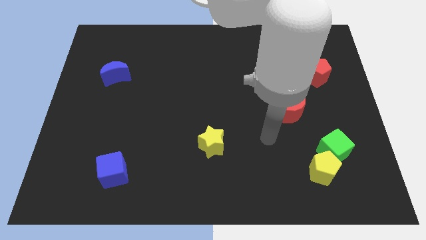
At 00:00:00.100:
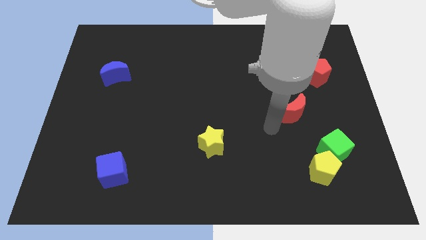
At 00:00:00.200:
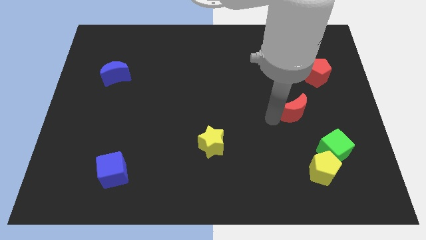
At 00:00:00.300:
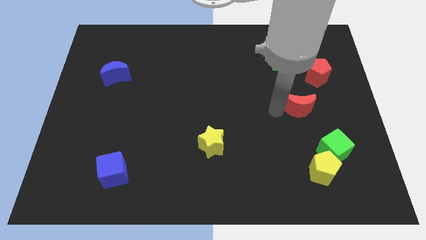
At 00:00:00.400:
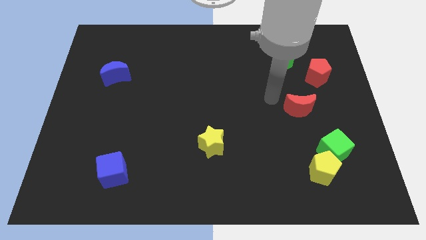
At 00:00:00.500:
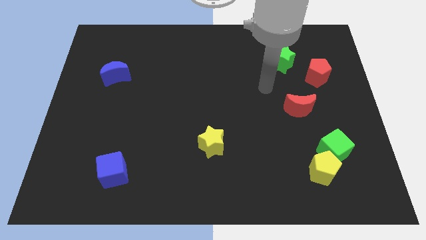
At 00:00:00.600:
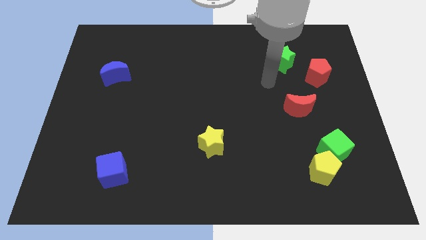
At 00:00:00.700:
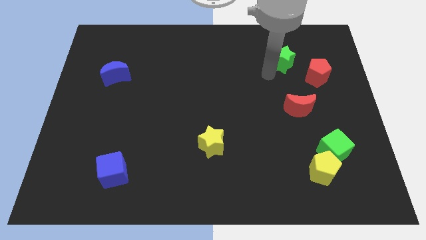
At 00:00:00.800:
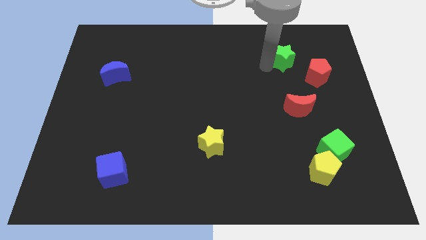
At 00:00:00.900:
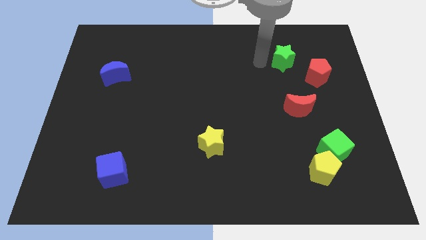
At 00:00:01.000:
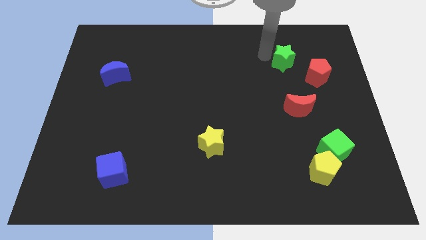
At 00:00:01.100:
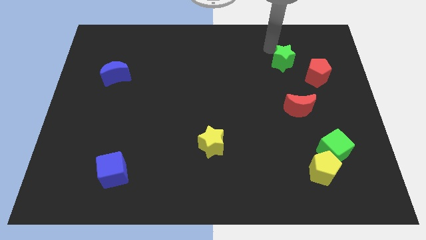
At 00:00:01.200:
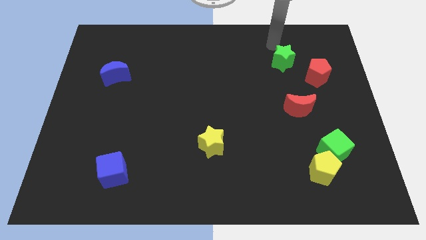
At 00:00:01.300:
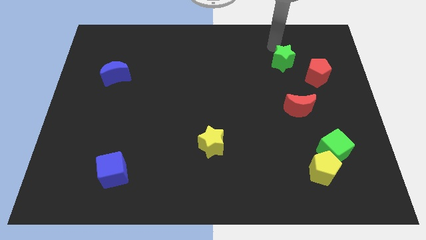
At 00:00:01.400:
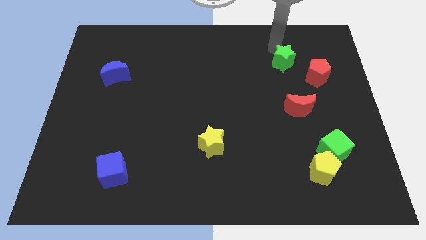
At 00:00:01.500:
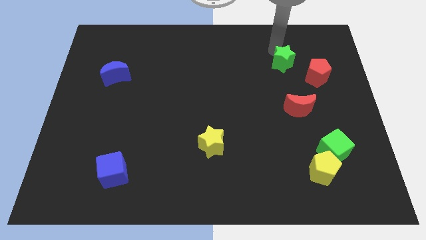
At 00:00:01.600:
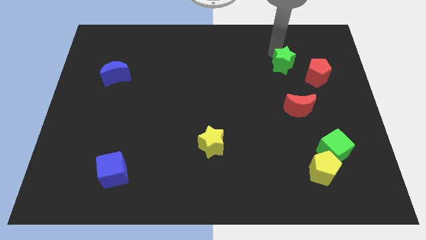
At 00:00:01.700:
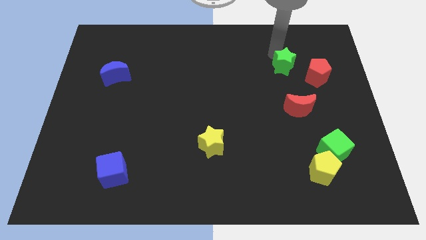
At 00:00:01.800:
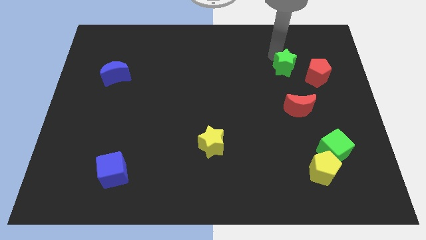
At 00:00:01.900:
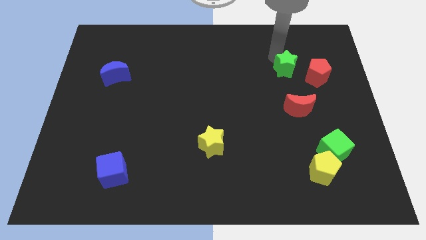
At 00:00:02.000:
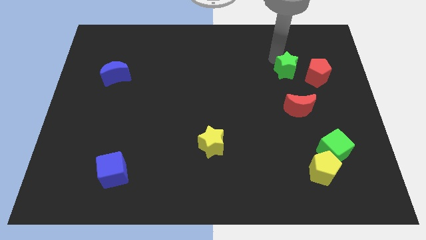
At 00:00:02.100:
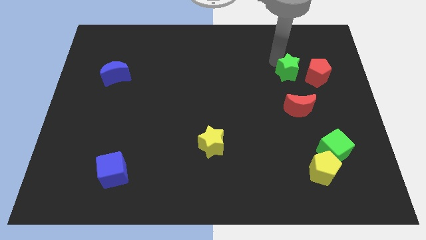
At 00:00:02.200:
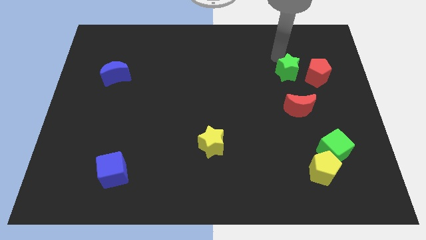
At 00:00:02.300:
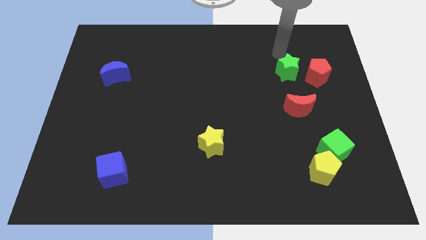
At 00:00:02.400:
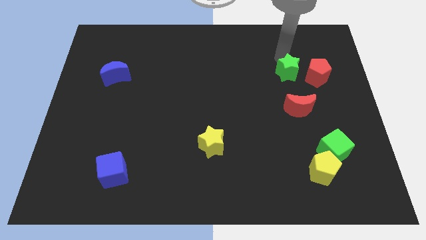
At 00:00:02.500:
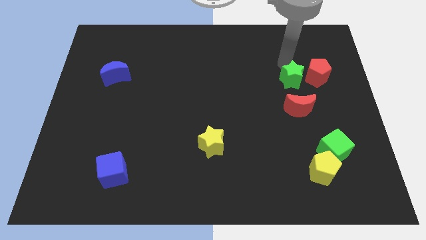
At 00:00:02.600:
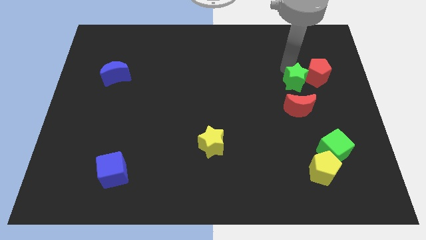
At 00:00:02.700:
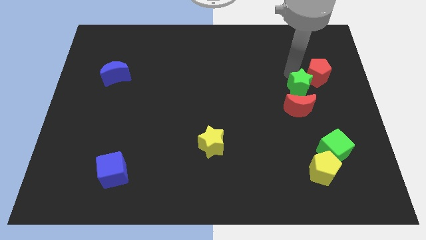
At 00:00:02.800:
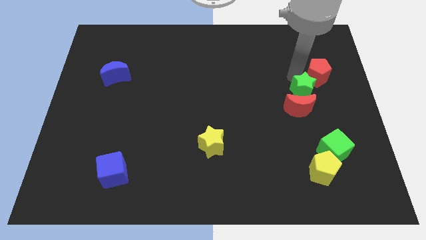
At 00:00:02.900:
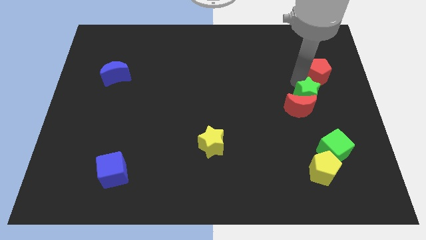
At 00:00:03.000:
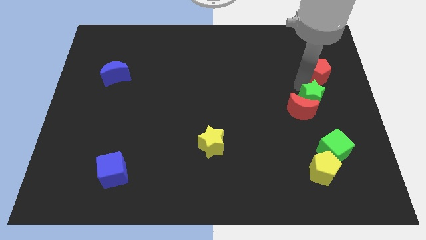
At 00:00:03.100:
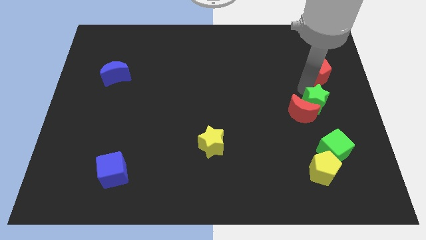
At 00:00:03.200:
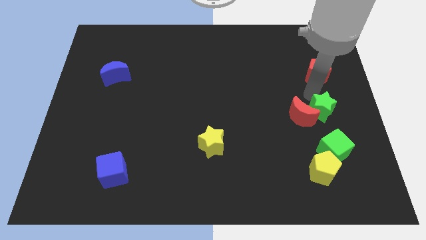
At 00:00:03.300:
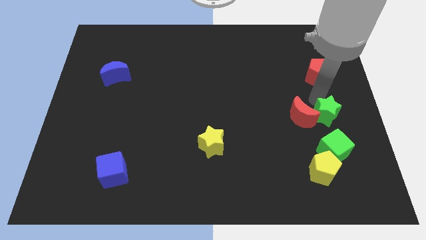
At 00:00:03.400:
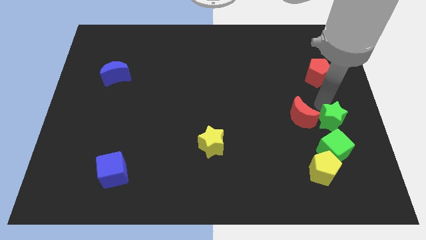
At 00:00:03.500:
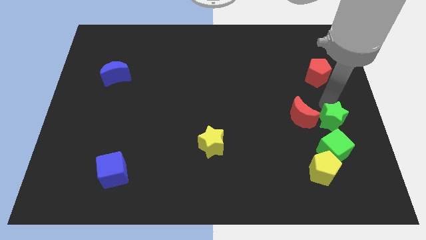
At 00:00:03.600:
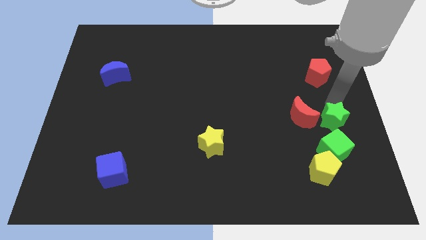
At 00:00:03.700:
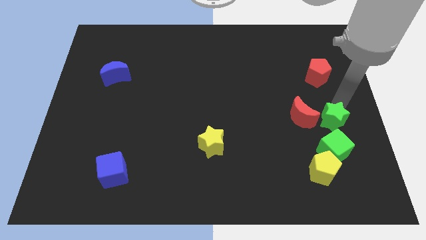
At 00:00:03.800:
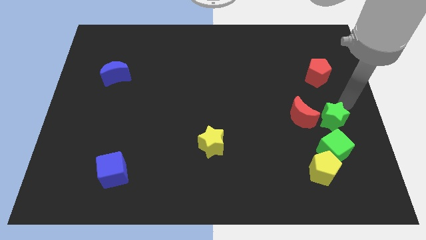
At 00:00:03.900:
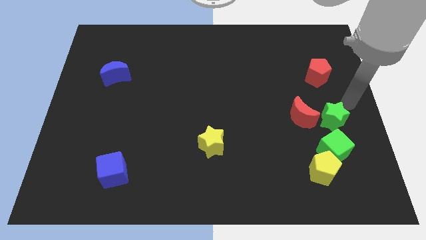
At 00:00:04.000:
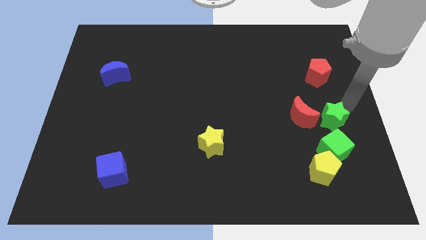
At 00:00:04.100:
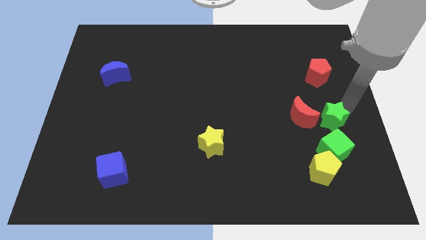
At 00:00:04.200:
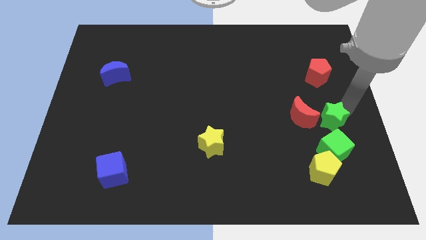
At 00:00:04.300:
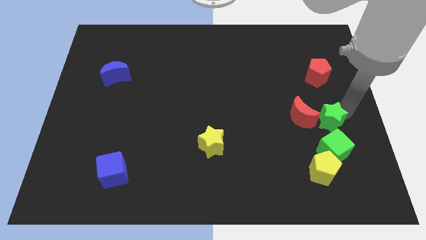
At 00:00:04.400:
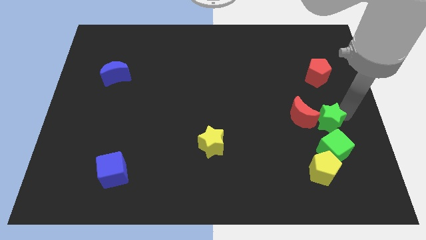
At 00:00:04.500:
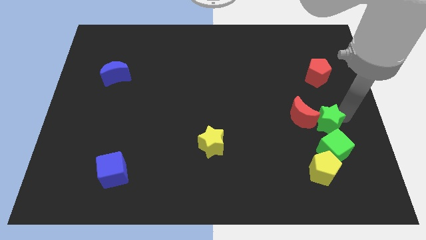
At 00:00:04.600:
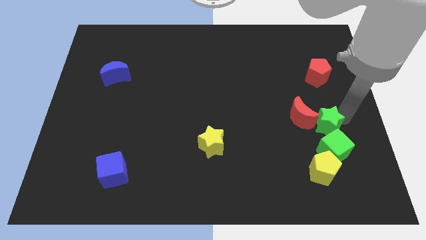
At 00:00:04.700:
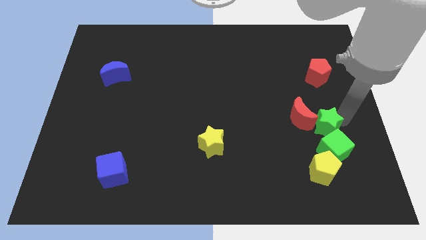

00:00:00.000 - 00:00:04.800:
put the green star close to the green cube

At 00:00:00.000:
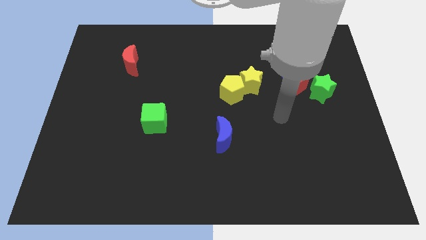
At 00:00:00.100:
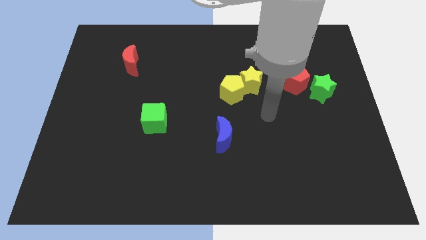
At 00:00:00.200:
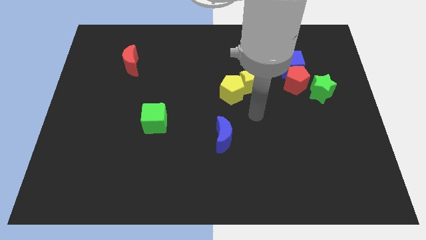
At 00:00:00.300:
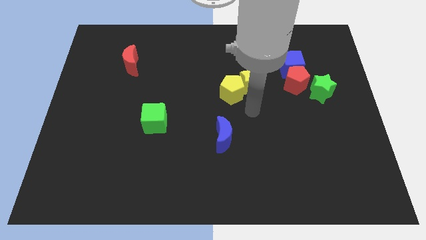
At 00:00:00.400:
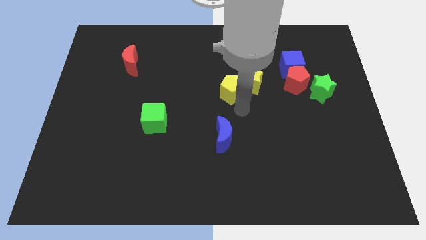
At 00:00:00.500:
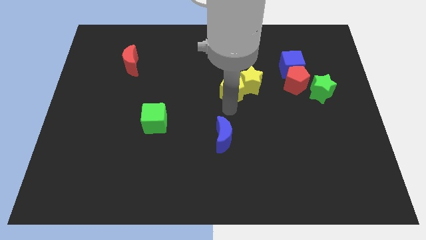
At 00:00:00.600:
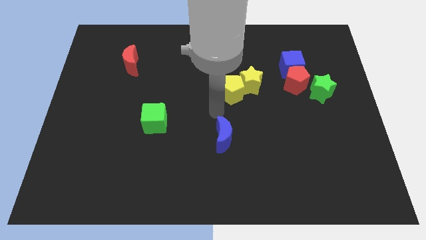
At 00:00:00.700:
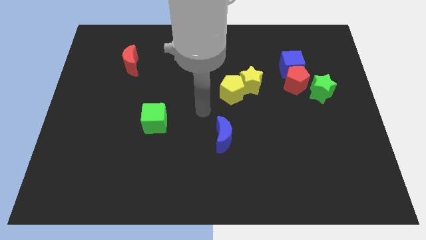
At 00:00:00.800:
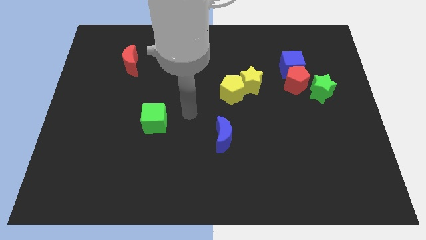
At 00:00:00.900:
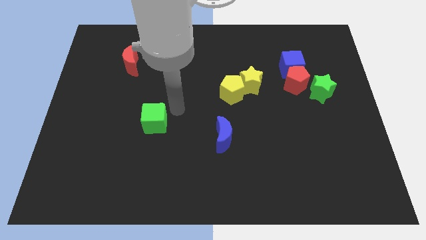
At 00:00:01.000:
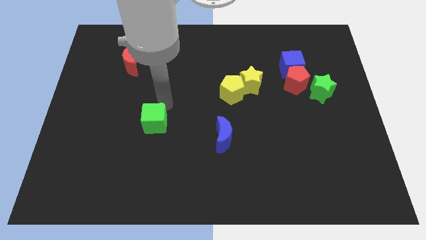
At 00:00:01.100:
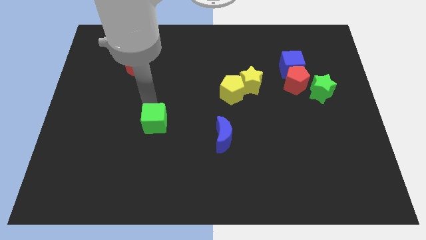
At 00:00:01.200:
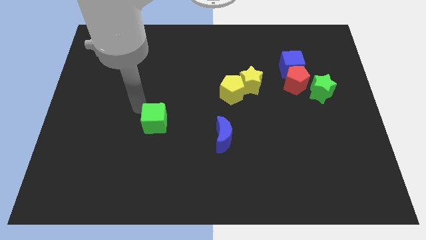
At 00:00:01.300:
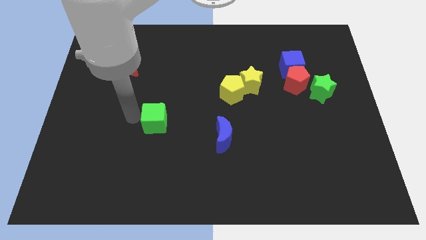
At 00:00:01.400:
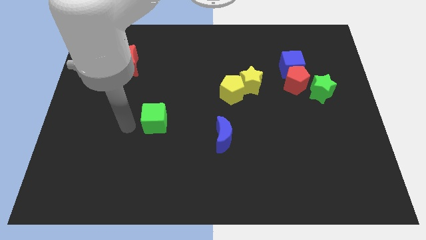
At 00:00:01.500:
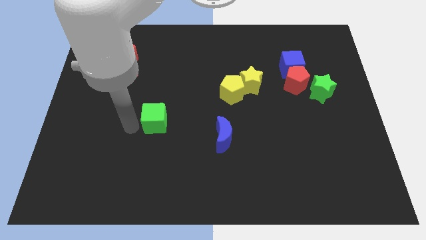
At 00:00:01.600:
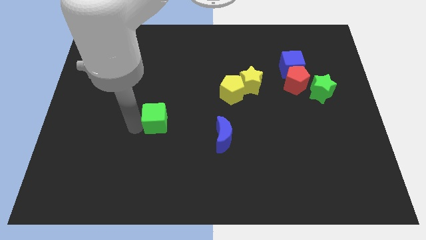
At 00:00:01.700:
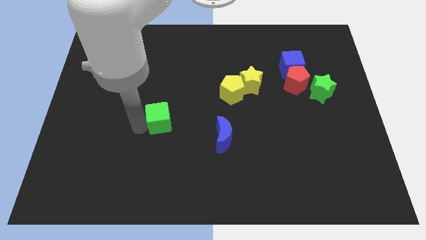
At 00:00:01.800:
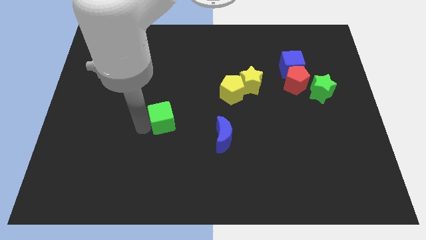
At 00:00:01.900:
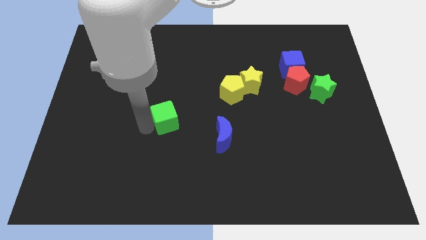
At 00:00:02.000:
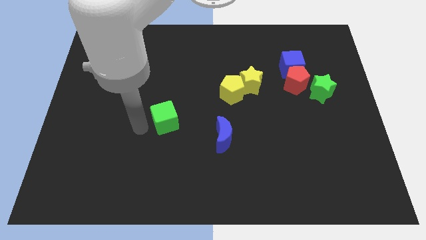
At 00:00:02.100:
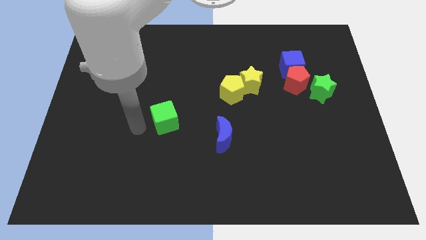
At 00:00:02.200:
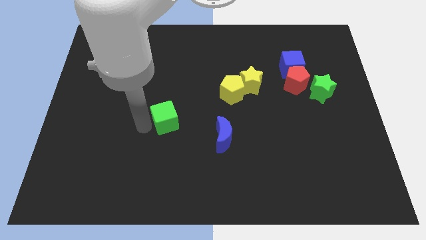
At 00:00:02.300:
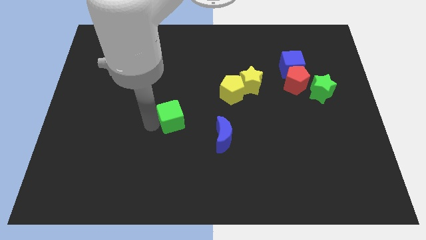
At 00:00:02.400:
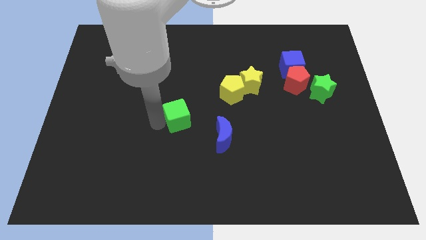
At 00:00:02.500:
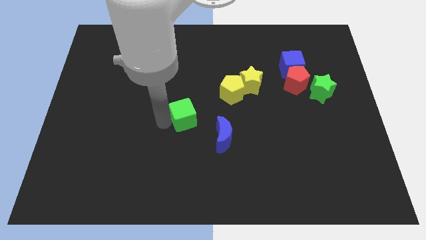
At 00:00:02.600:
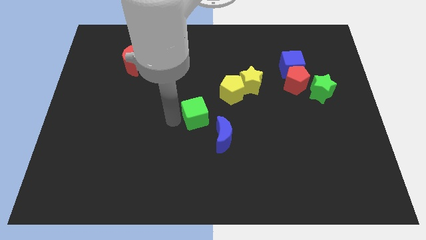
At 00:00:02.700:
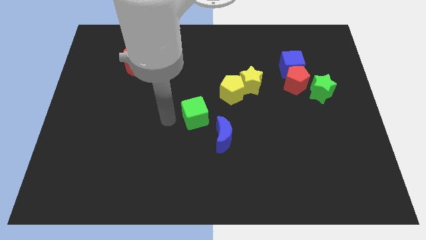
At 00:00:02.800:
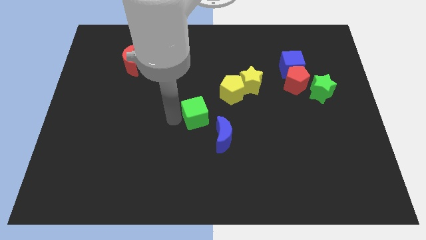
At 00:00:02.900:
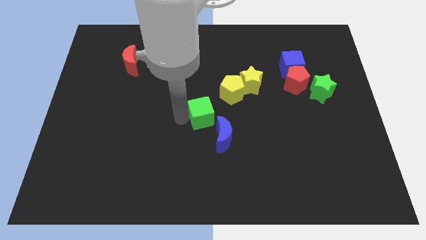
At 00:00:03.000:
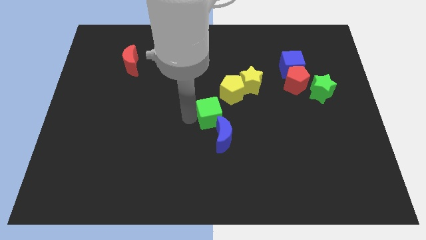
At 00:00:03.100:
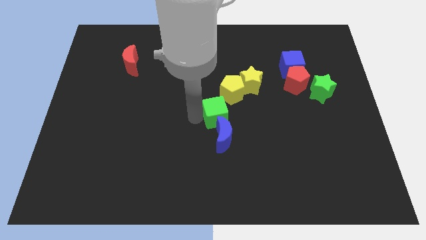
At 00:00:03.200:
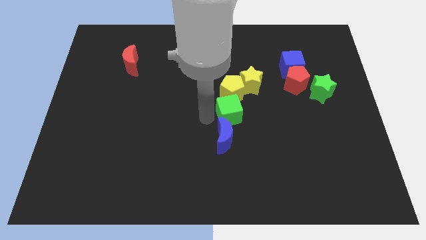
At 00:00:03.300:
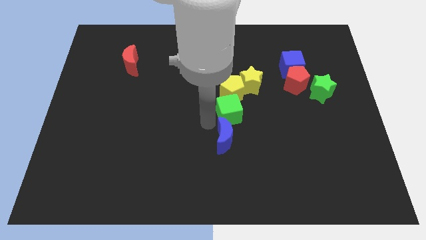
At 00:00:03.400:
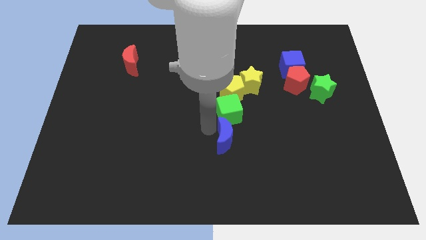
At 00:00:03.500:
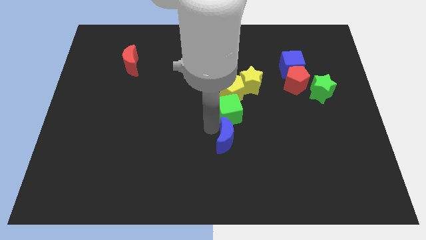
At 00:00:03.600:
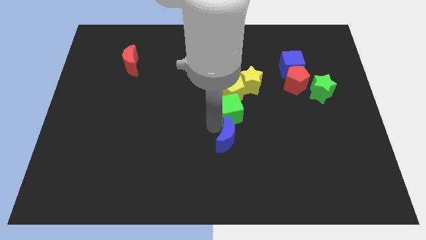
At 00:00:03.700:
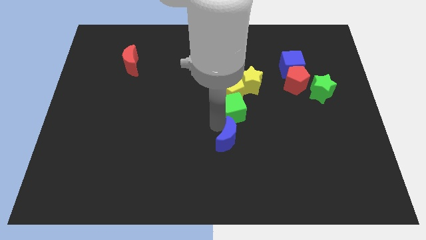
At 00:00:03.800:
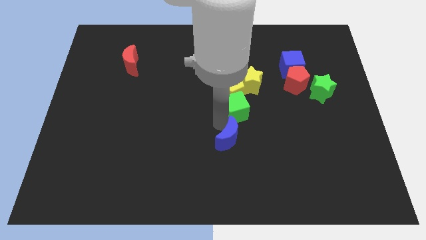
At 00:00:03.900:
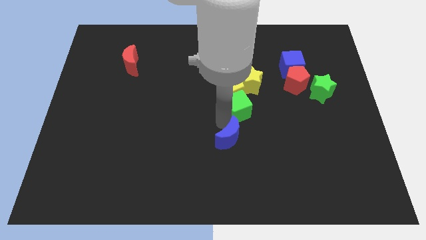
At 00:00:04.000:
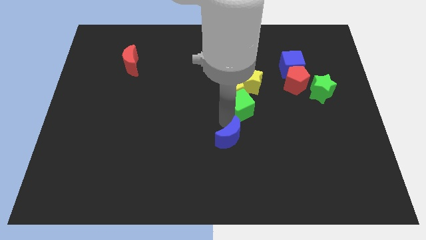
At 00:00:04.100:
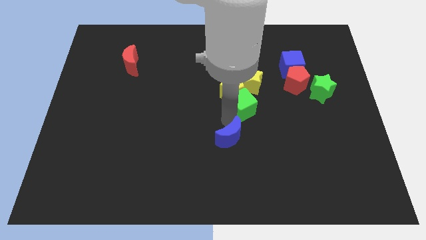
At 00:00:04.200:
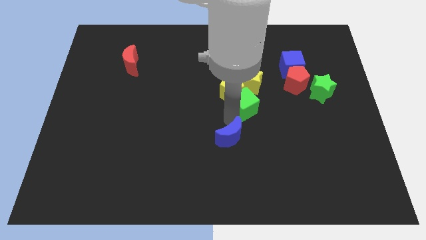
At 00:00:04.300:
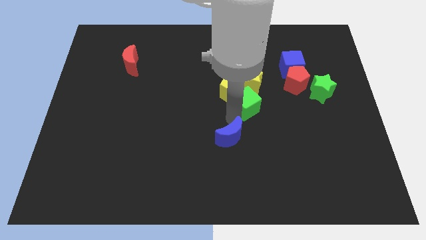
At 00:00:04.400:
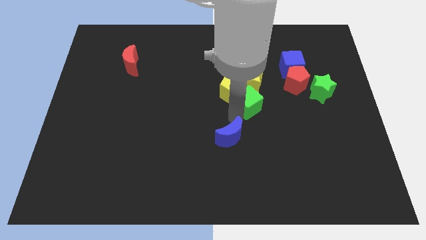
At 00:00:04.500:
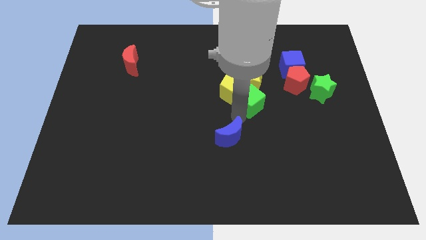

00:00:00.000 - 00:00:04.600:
put the green cube to the yellow star
